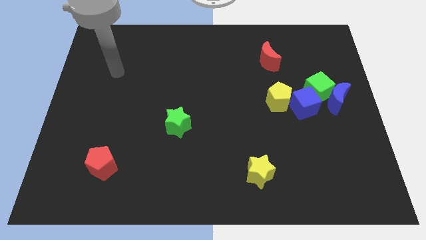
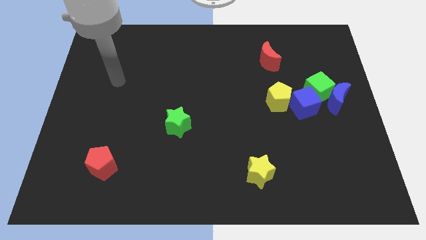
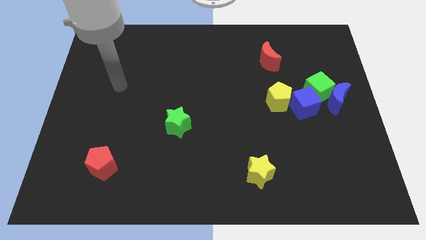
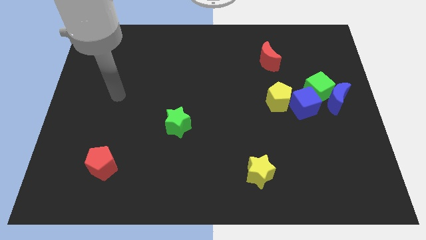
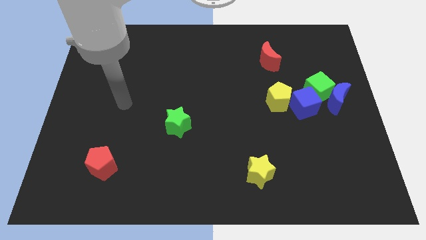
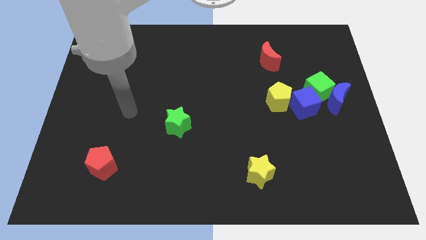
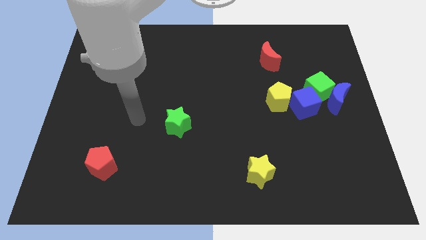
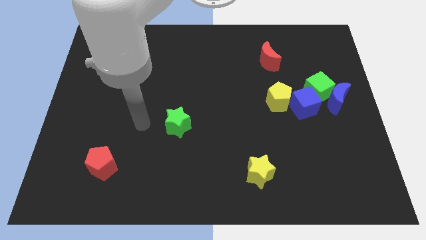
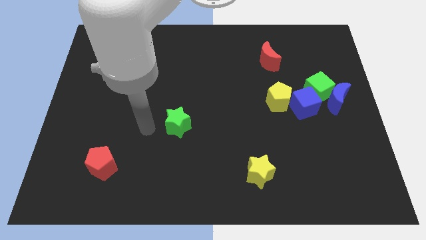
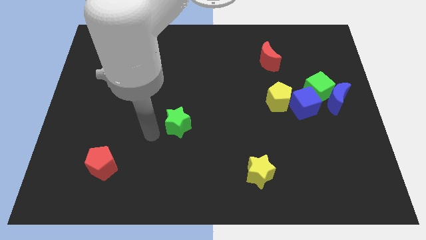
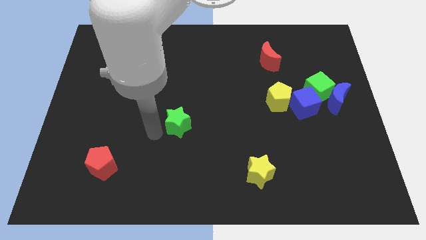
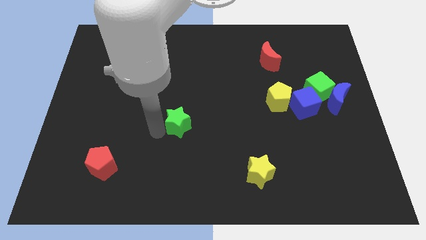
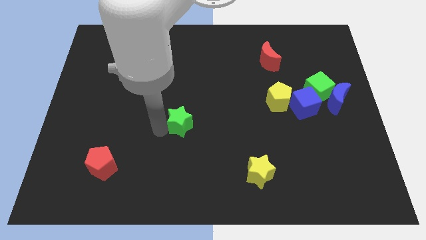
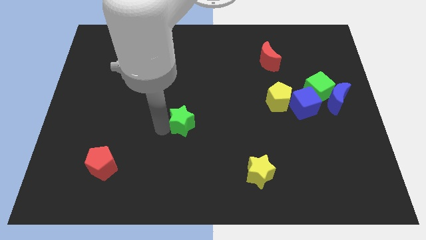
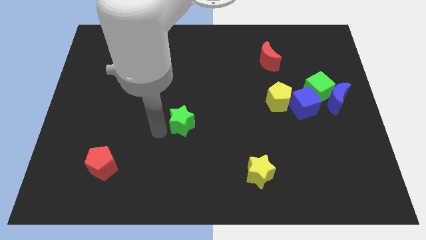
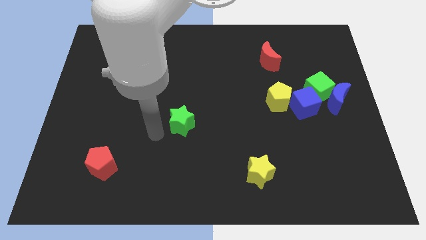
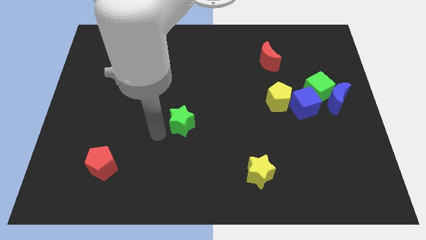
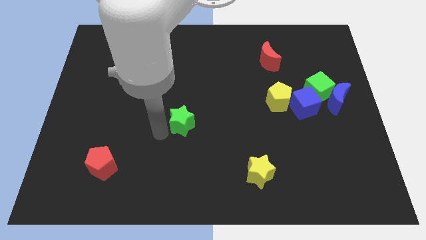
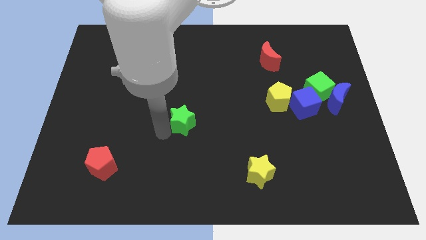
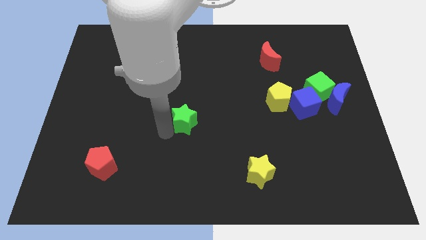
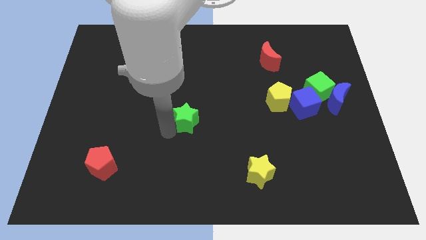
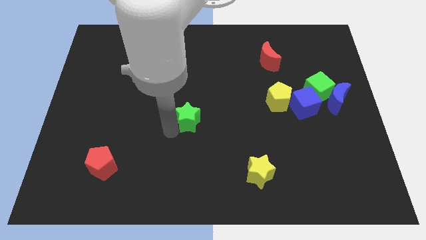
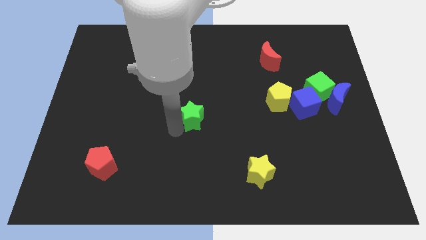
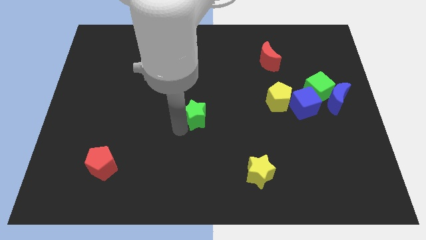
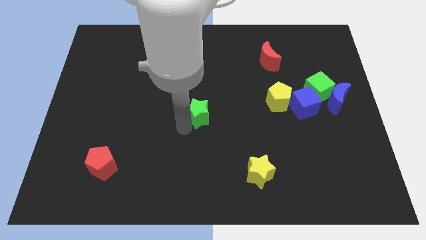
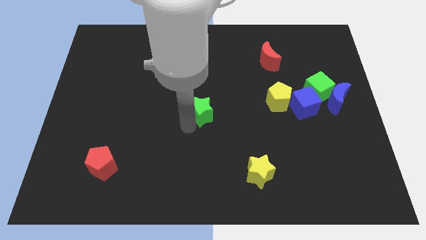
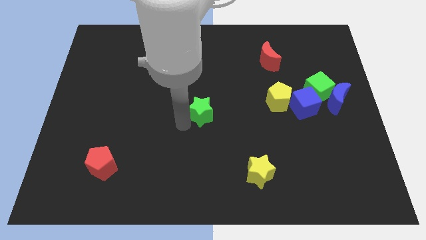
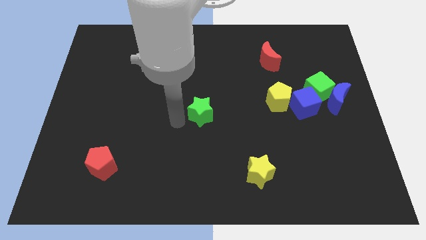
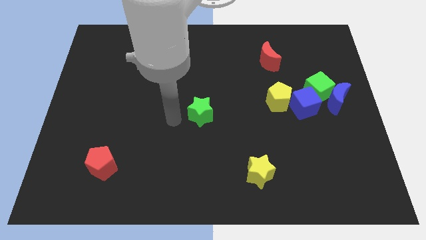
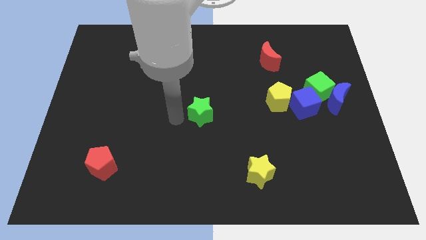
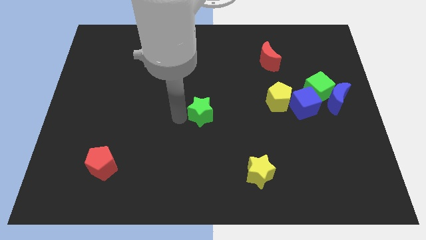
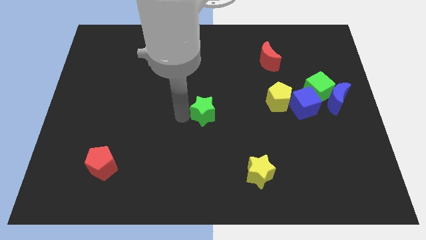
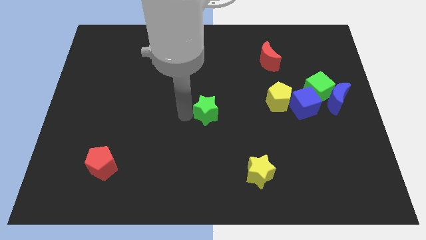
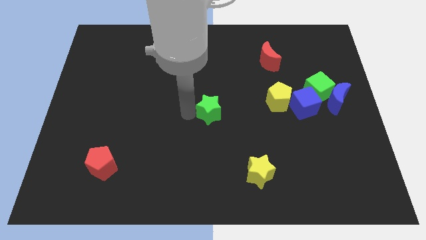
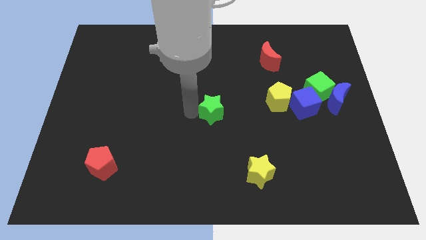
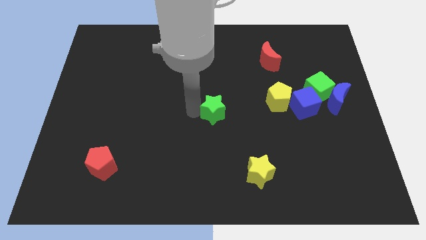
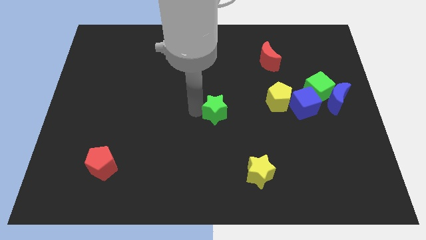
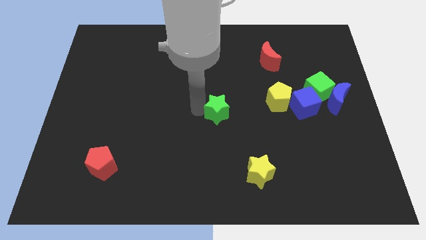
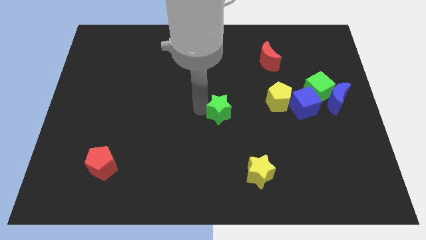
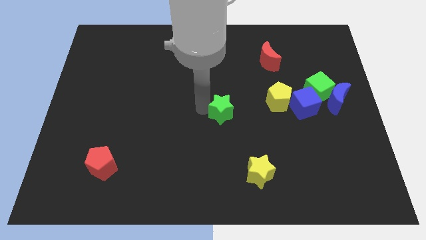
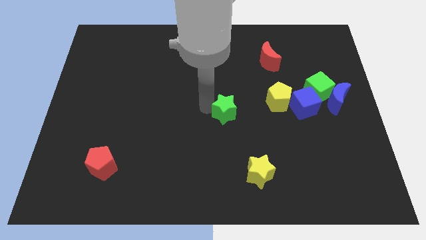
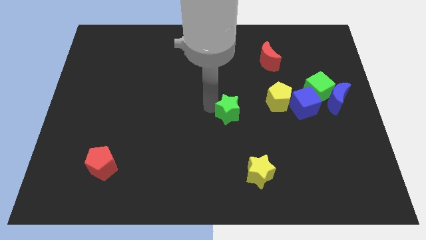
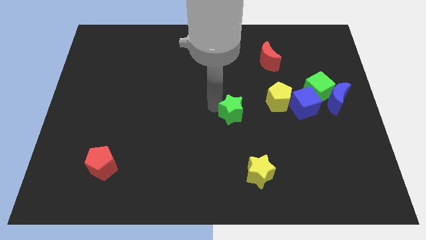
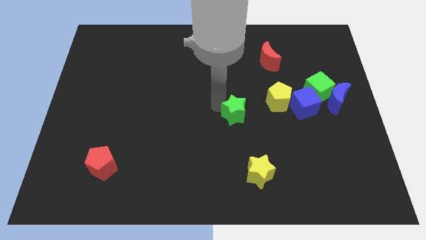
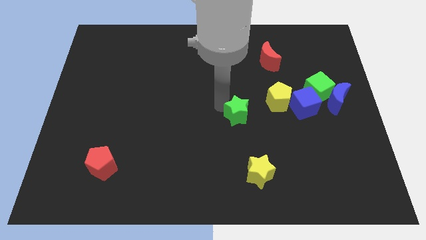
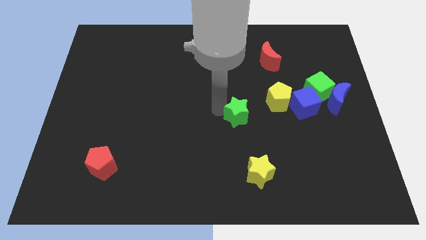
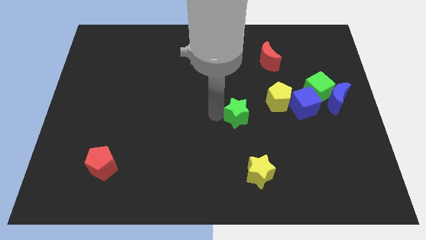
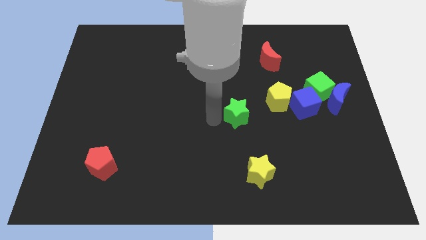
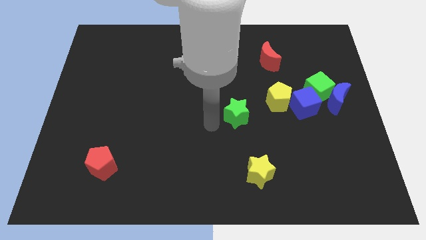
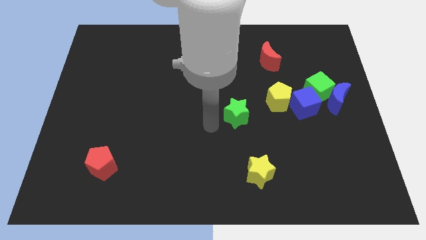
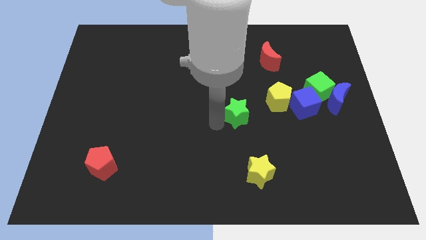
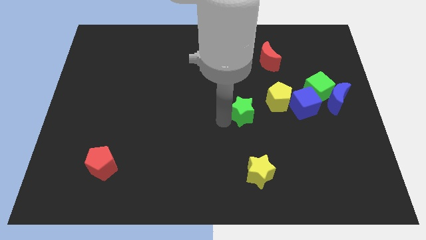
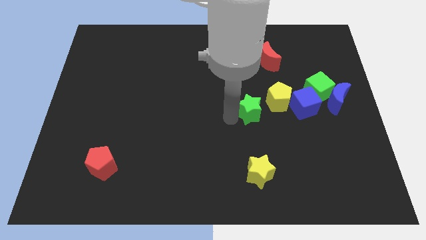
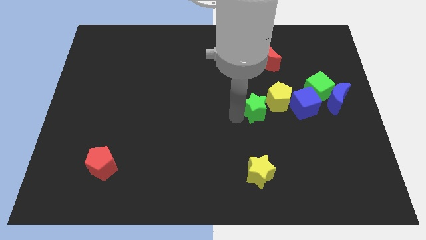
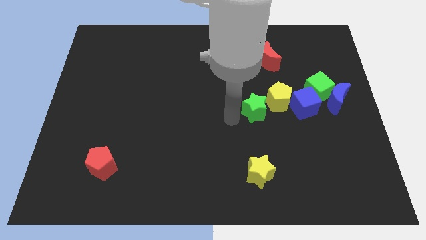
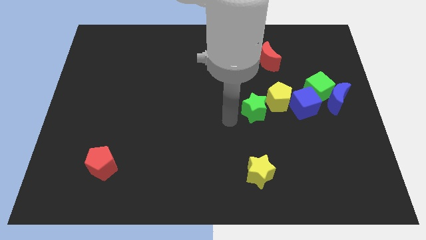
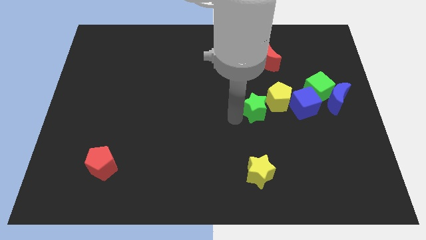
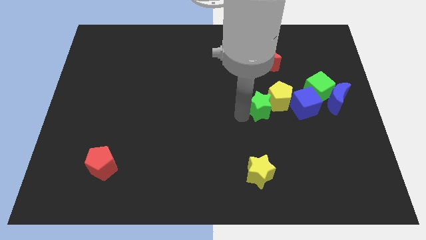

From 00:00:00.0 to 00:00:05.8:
put the green star to the yellow pentagon

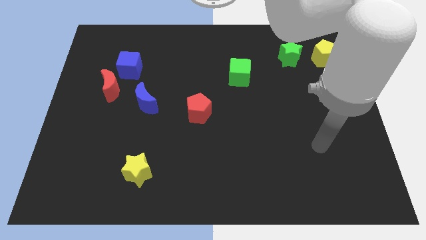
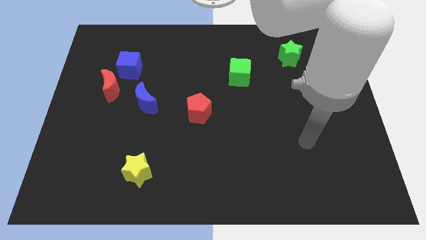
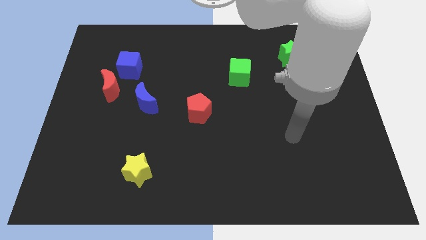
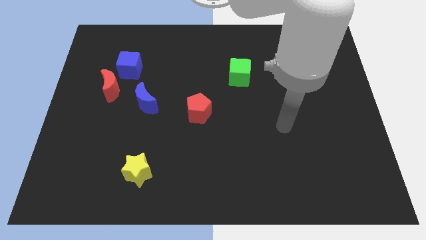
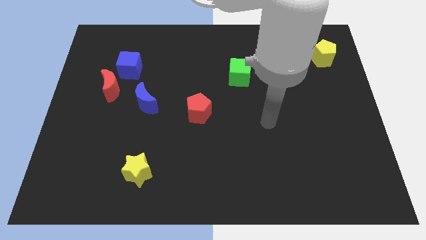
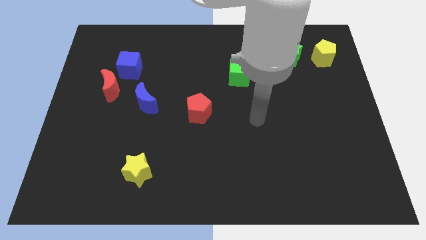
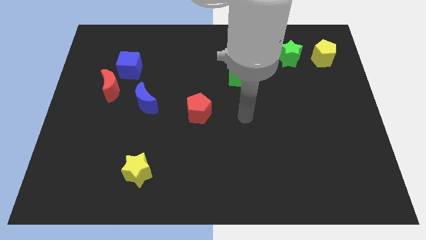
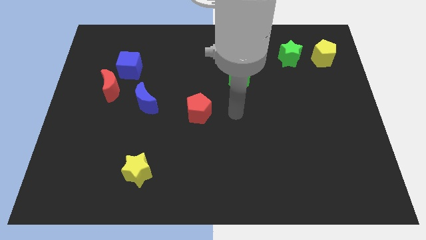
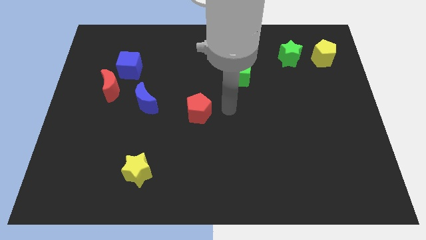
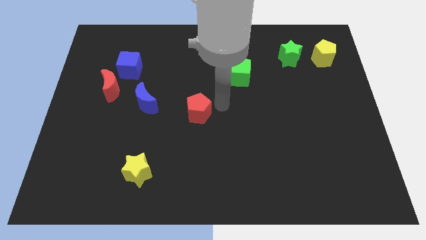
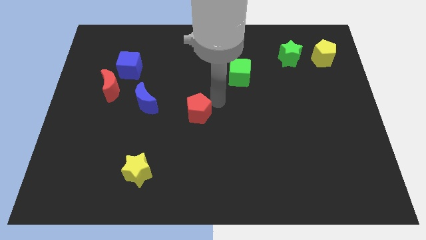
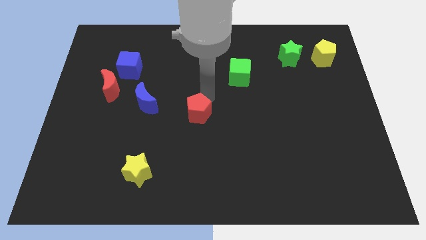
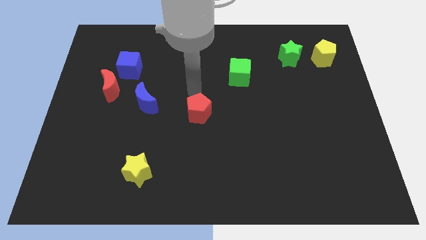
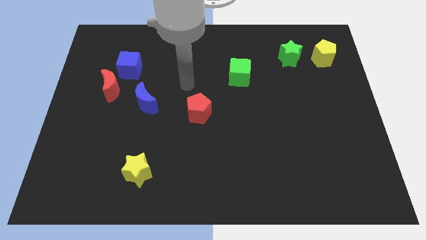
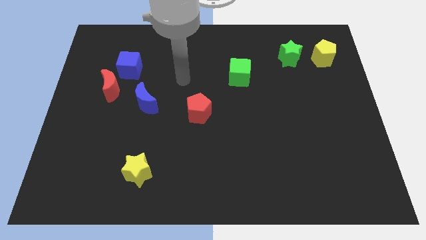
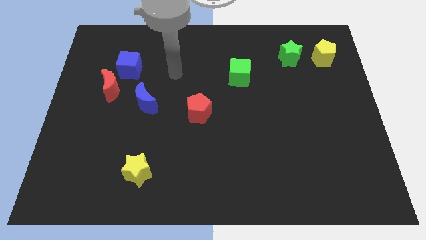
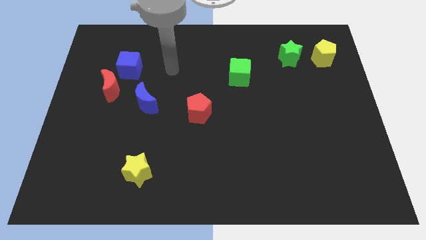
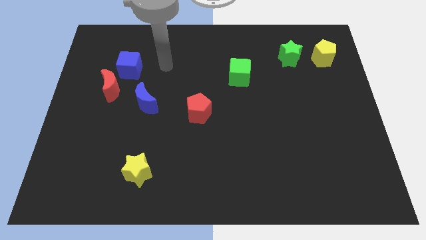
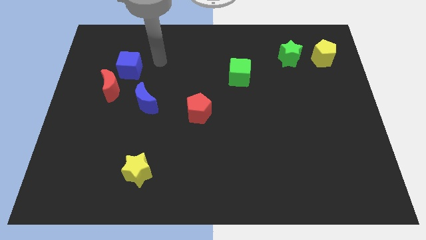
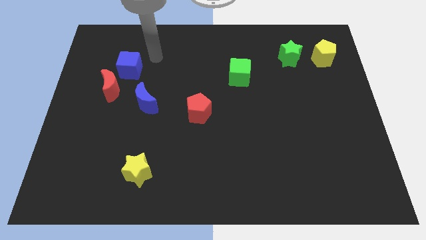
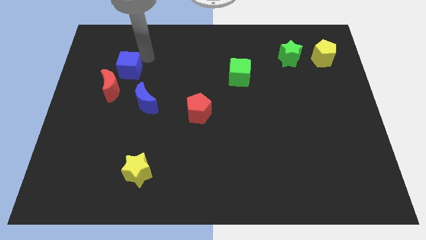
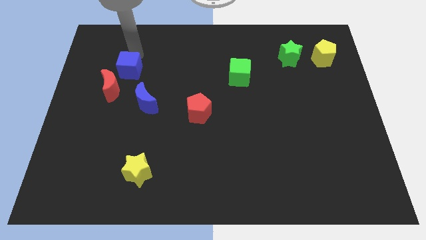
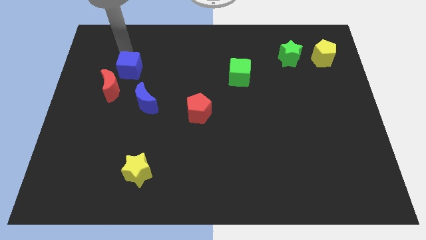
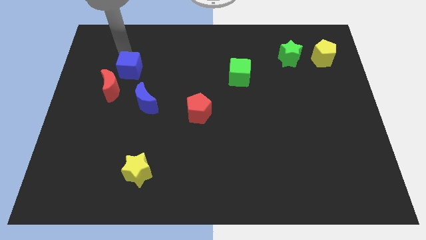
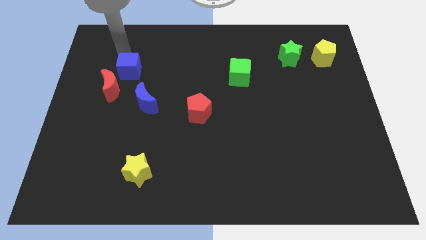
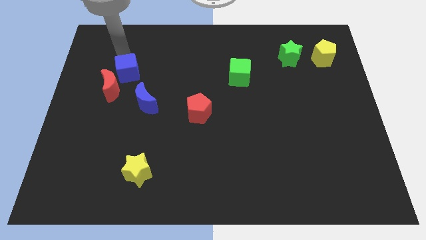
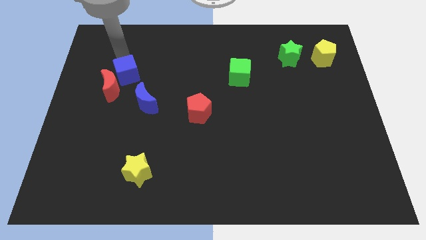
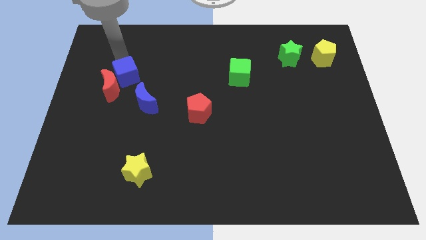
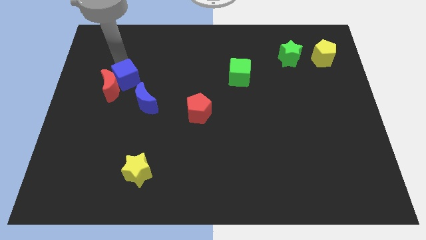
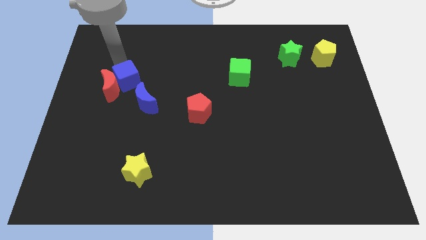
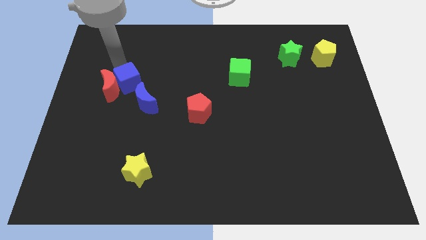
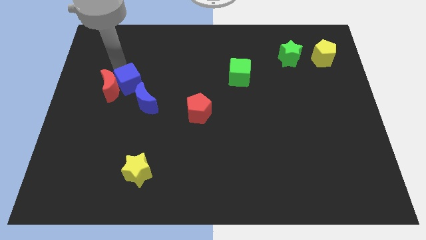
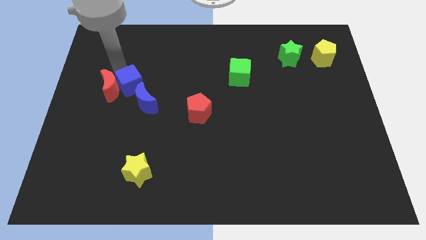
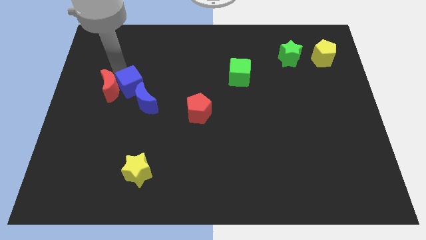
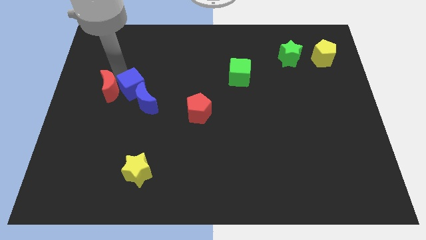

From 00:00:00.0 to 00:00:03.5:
put the blue cube next to the blue moon
